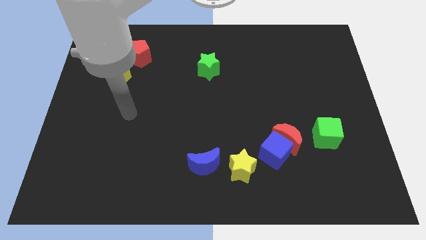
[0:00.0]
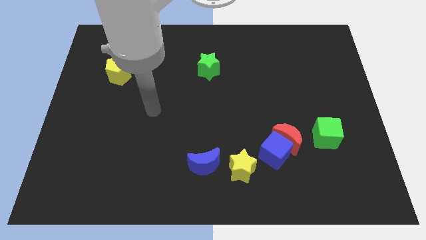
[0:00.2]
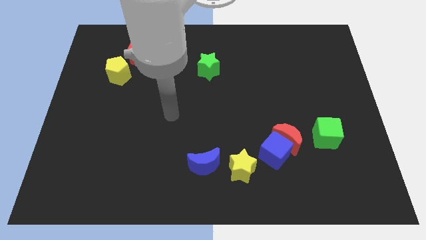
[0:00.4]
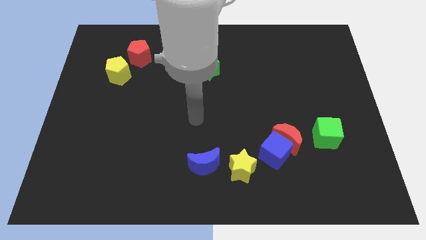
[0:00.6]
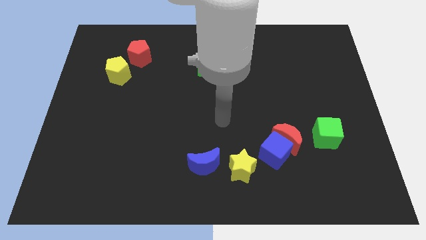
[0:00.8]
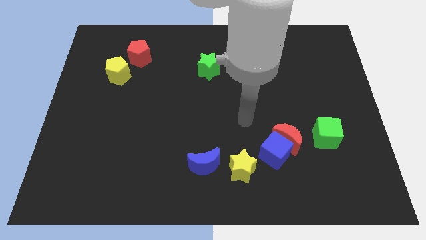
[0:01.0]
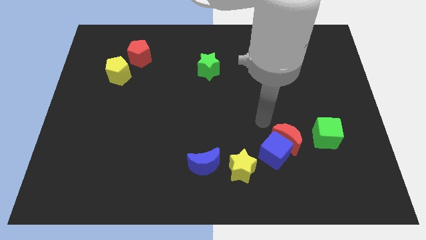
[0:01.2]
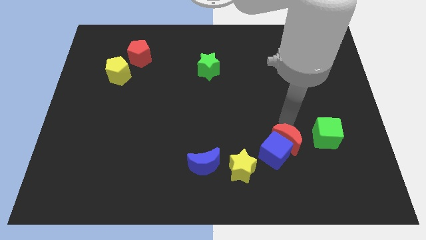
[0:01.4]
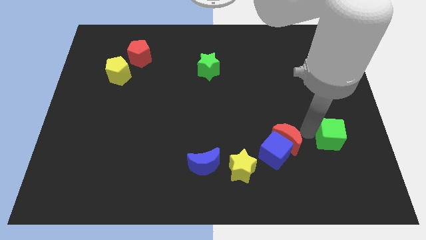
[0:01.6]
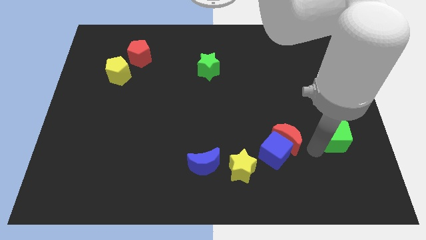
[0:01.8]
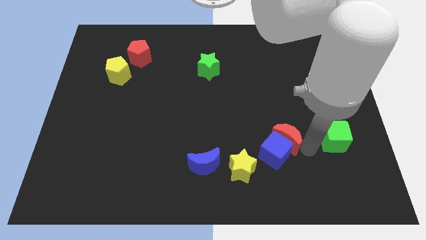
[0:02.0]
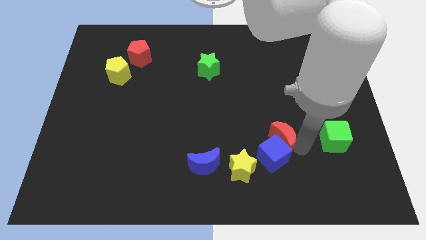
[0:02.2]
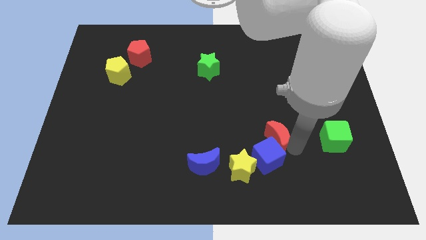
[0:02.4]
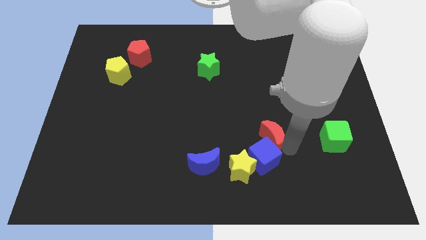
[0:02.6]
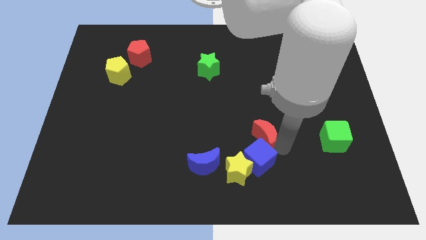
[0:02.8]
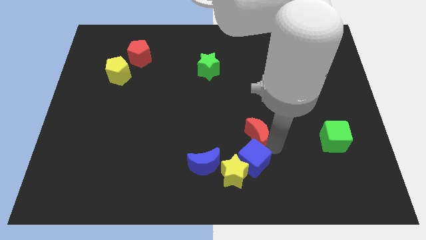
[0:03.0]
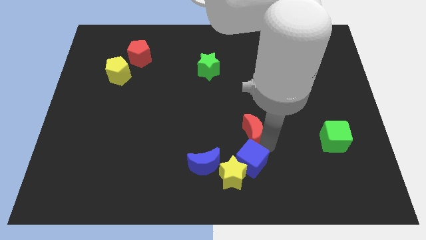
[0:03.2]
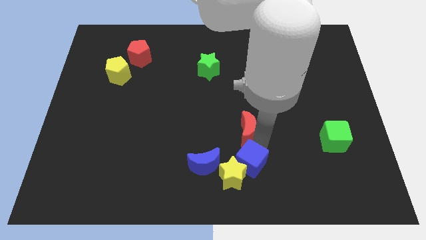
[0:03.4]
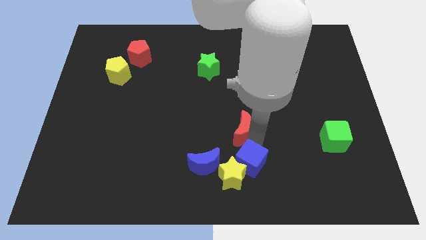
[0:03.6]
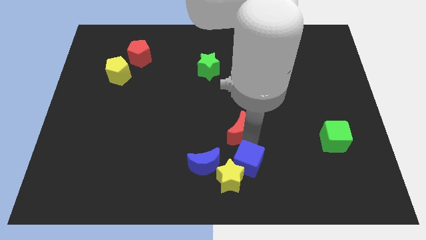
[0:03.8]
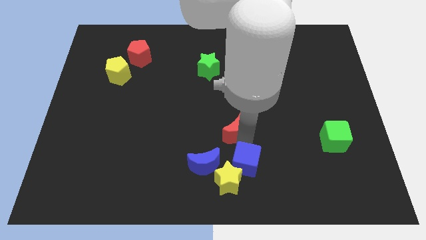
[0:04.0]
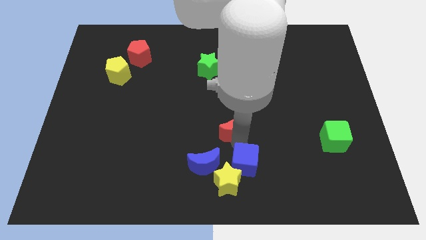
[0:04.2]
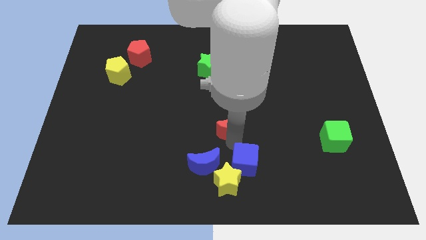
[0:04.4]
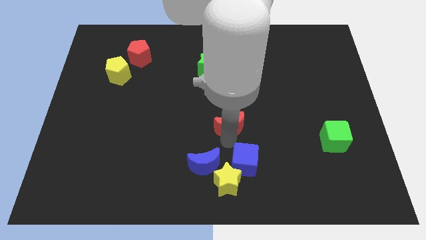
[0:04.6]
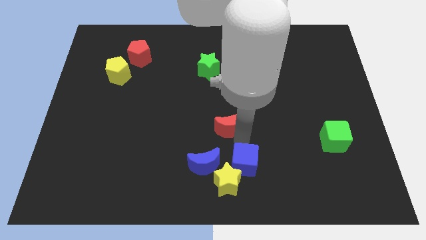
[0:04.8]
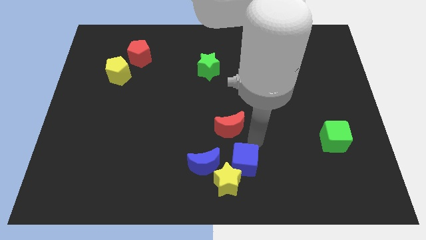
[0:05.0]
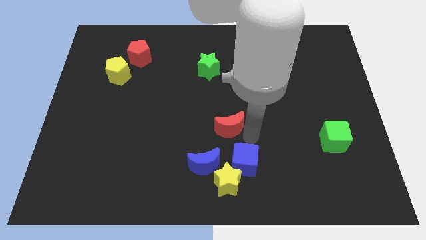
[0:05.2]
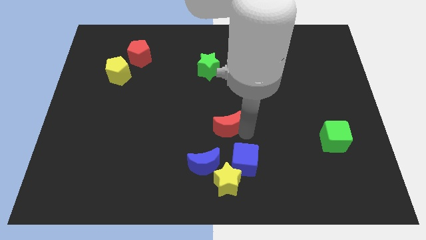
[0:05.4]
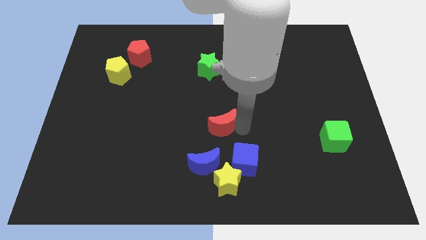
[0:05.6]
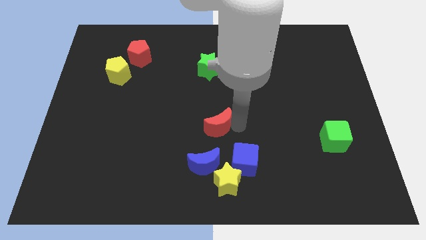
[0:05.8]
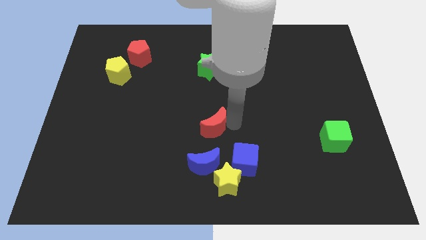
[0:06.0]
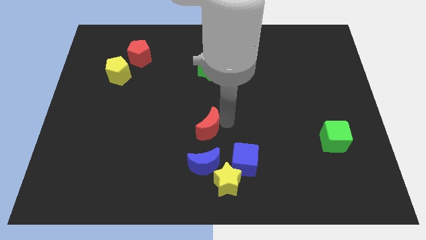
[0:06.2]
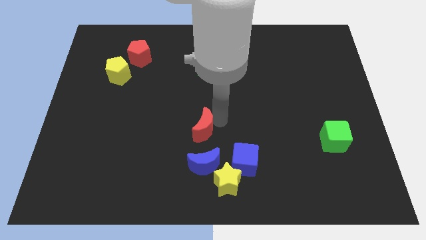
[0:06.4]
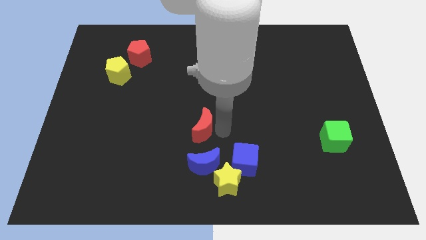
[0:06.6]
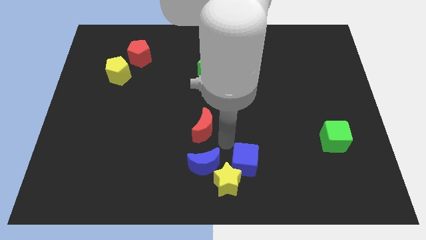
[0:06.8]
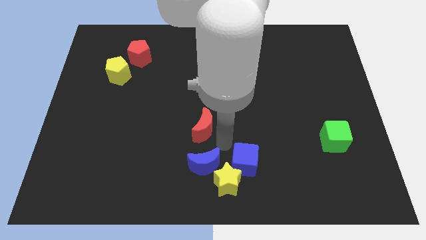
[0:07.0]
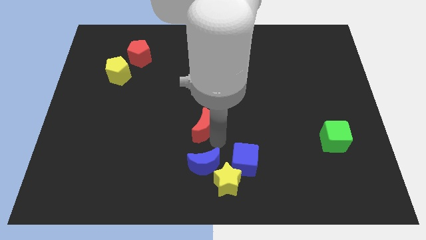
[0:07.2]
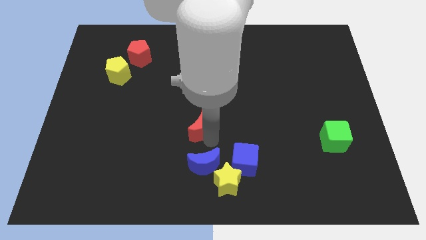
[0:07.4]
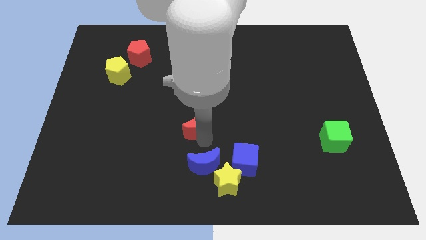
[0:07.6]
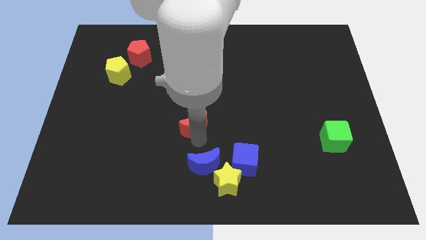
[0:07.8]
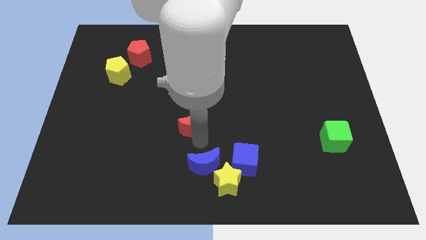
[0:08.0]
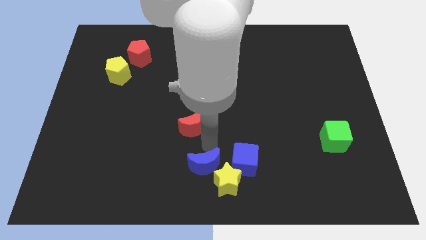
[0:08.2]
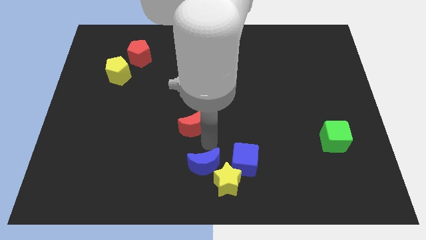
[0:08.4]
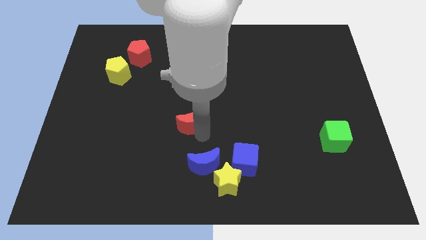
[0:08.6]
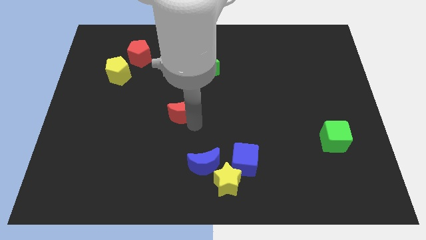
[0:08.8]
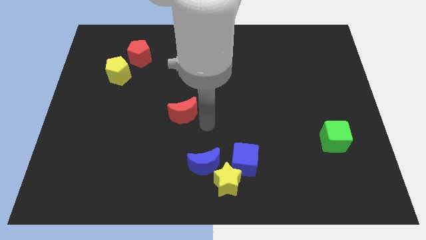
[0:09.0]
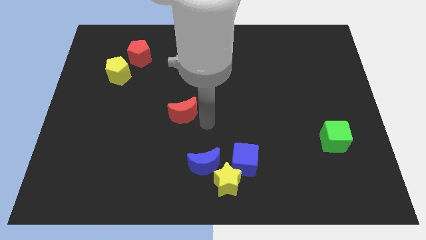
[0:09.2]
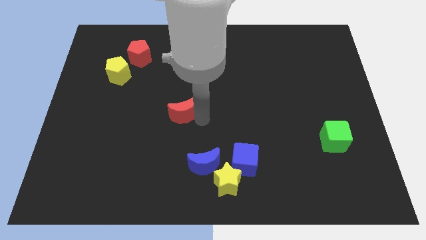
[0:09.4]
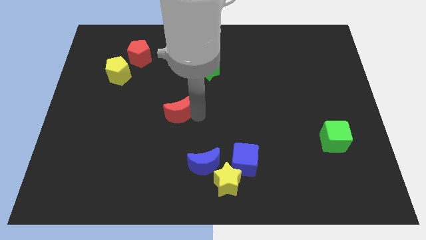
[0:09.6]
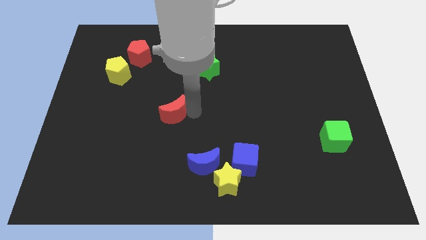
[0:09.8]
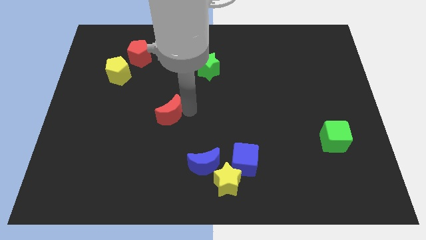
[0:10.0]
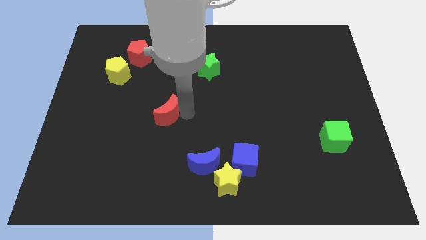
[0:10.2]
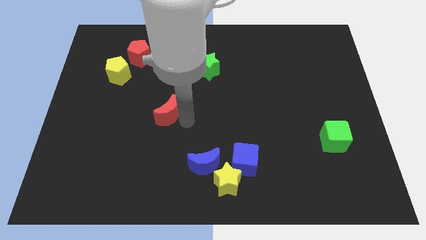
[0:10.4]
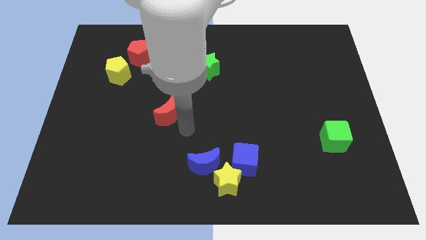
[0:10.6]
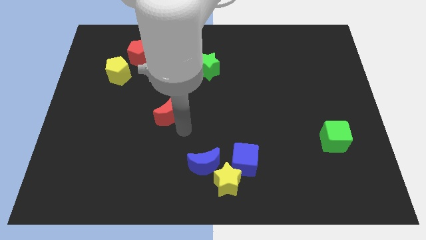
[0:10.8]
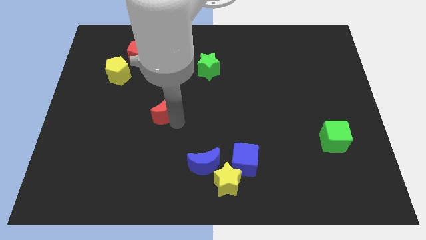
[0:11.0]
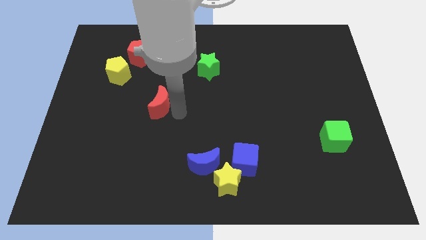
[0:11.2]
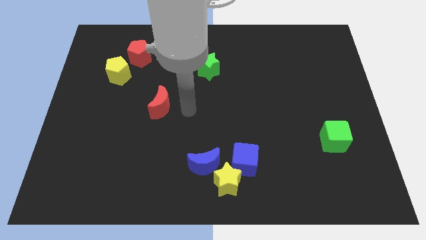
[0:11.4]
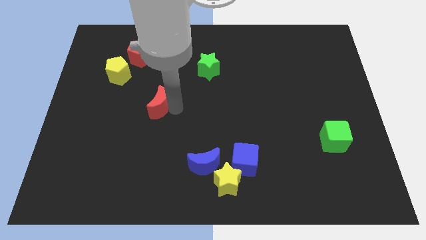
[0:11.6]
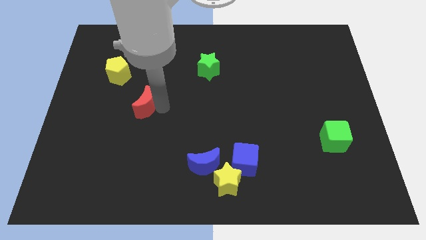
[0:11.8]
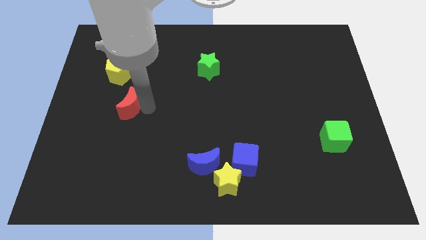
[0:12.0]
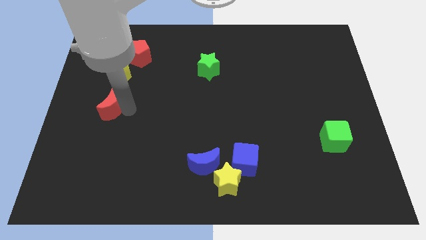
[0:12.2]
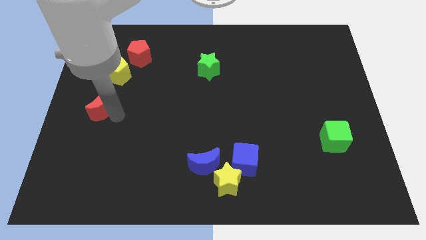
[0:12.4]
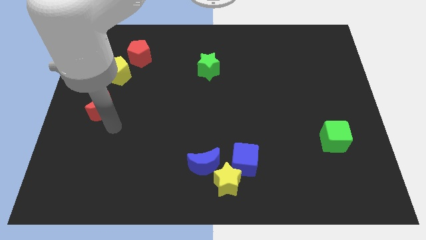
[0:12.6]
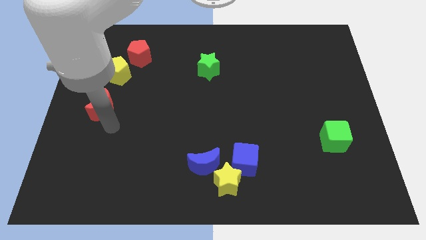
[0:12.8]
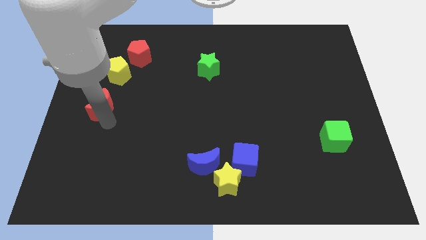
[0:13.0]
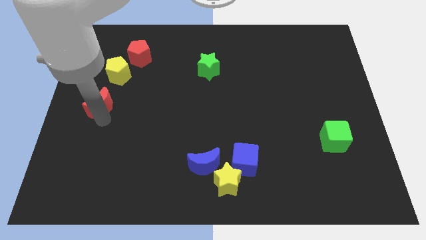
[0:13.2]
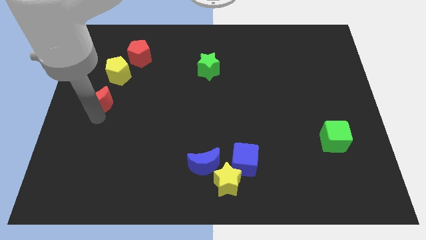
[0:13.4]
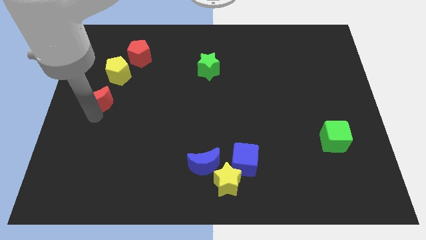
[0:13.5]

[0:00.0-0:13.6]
slide the red moon diagonally down and to the left of the yellow pentagon

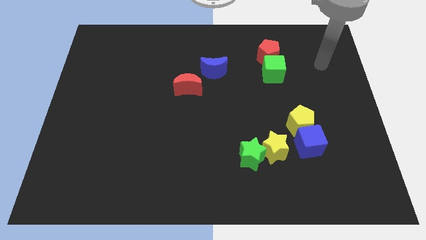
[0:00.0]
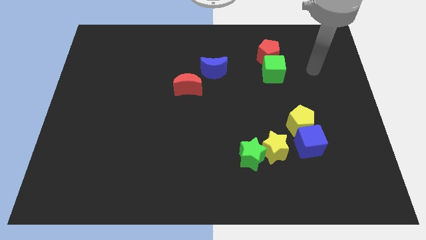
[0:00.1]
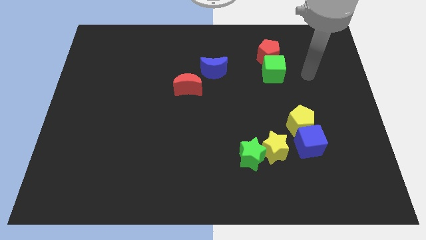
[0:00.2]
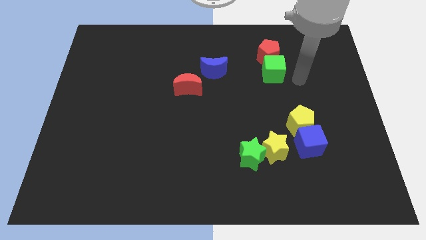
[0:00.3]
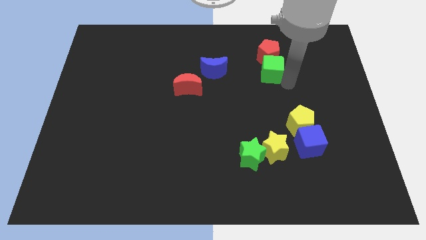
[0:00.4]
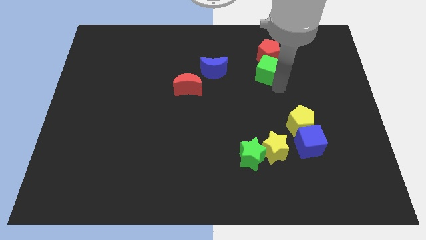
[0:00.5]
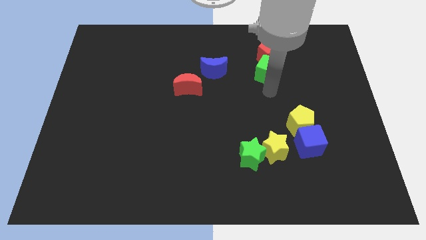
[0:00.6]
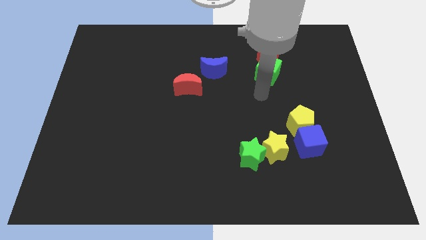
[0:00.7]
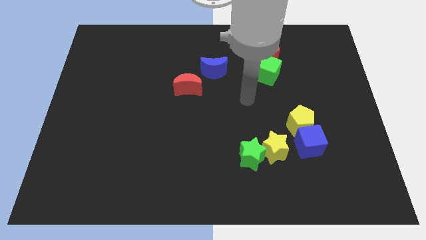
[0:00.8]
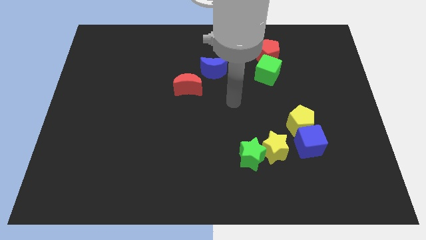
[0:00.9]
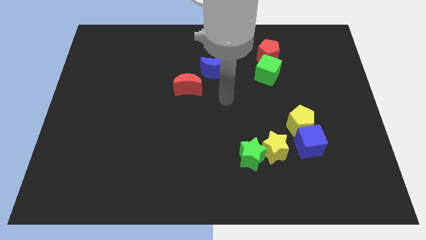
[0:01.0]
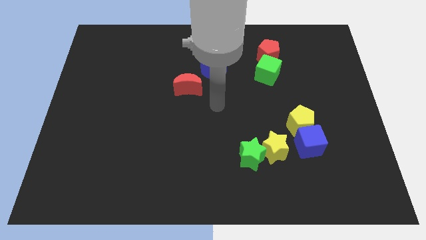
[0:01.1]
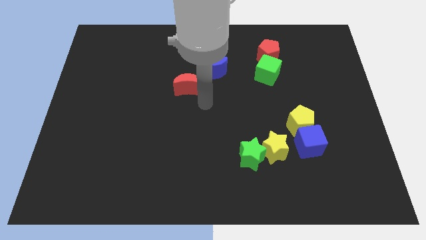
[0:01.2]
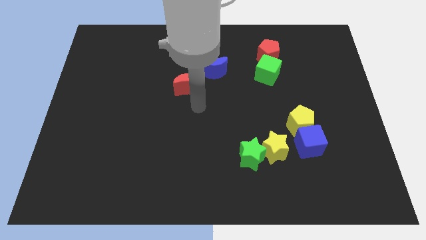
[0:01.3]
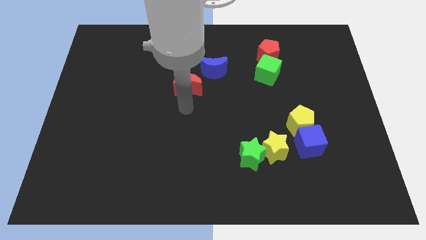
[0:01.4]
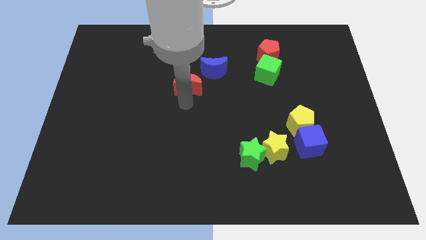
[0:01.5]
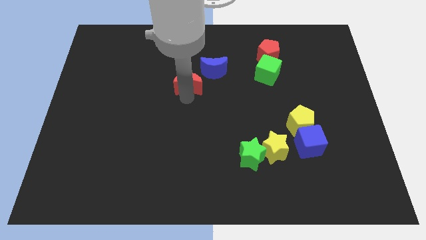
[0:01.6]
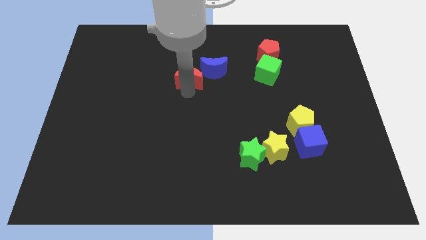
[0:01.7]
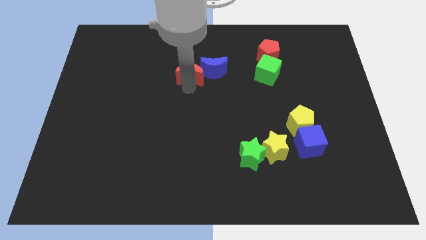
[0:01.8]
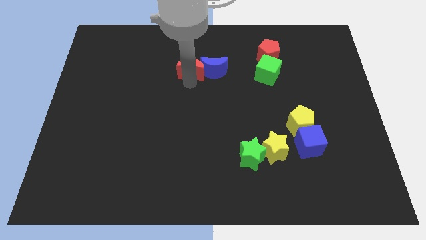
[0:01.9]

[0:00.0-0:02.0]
push the red moon to the top left of the blue moon
